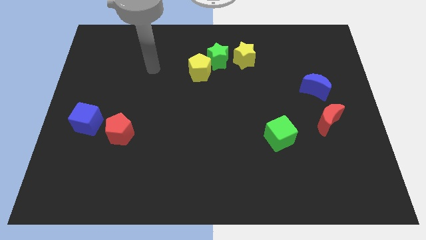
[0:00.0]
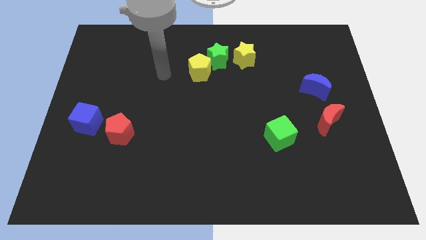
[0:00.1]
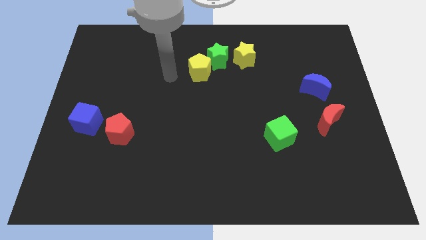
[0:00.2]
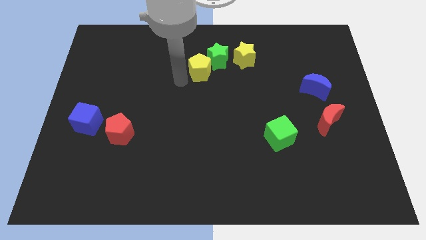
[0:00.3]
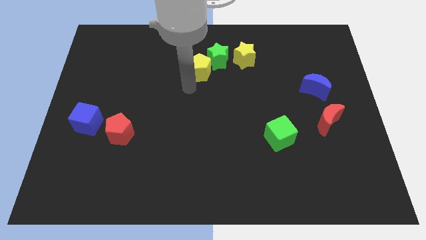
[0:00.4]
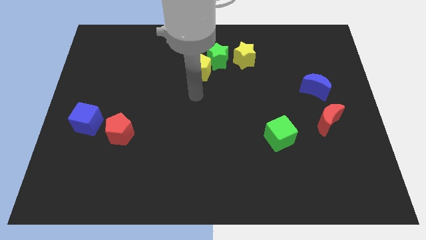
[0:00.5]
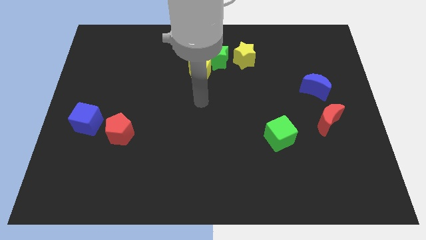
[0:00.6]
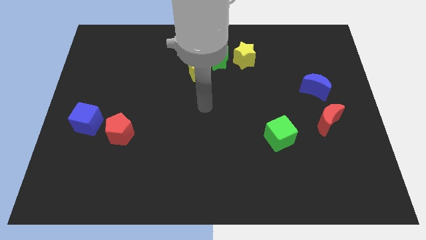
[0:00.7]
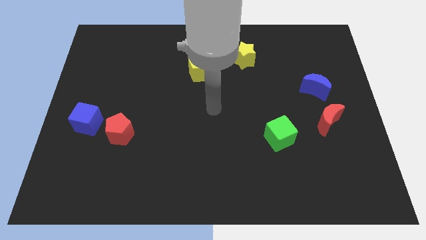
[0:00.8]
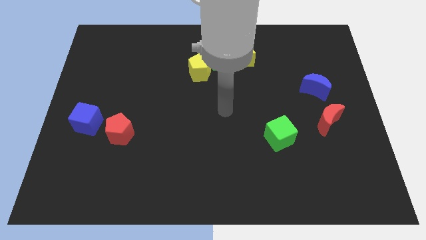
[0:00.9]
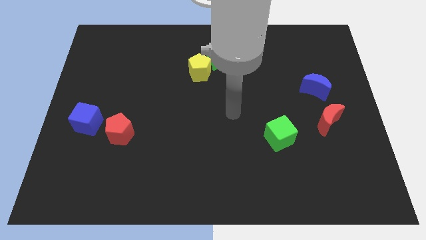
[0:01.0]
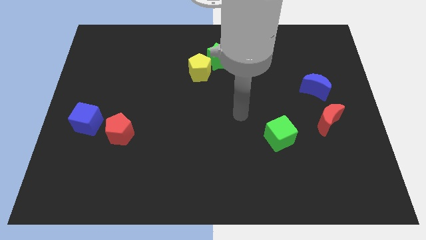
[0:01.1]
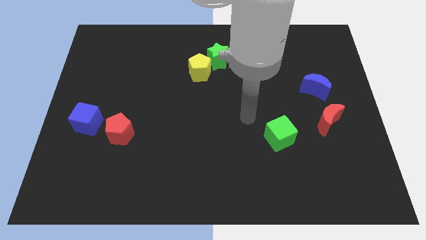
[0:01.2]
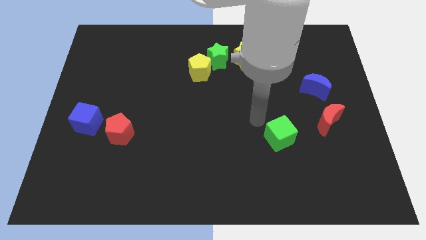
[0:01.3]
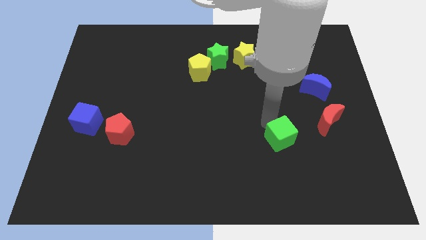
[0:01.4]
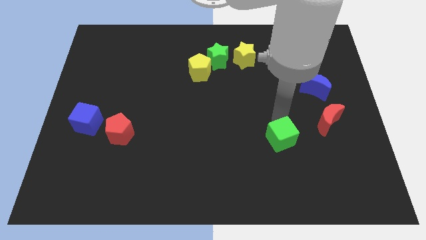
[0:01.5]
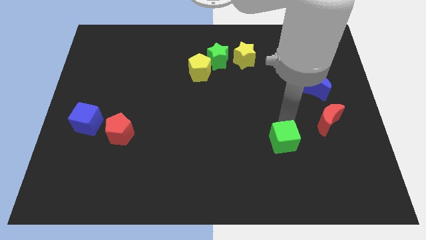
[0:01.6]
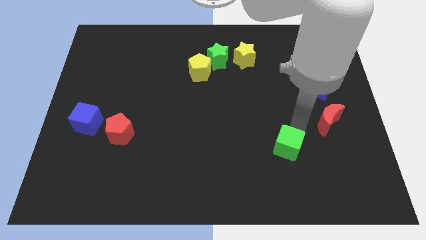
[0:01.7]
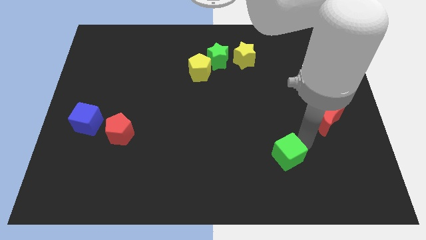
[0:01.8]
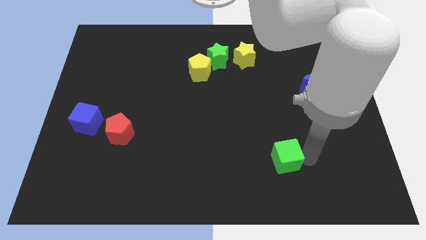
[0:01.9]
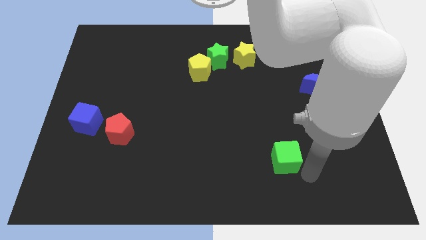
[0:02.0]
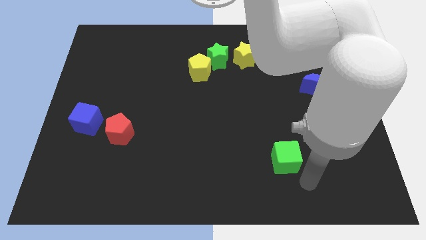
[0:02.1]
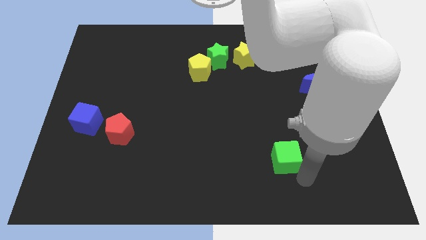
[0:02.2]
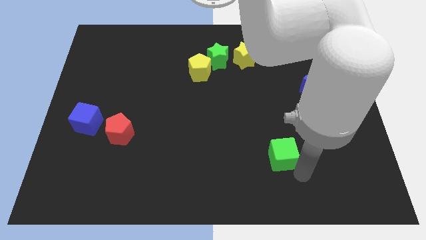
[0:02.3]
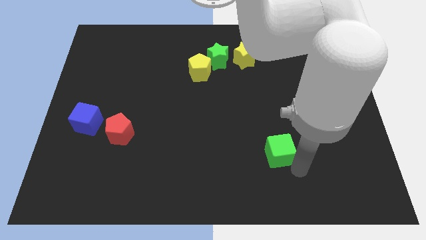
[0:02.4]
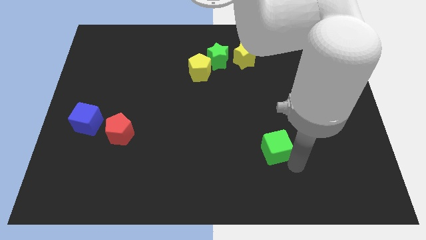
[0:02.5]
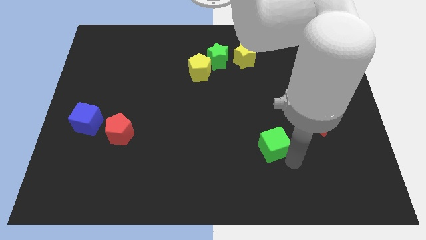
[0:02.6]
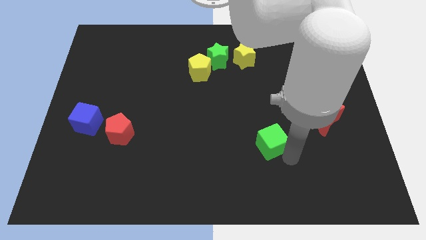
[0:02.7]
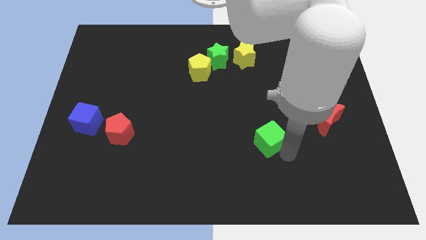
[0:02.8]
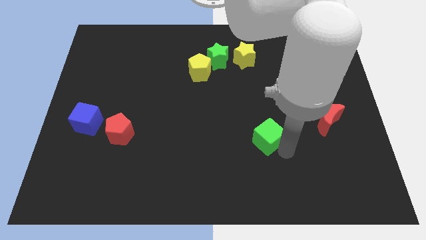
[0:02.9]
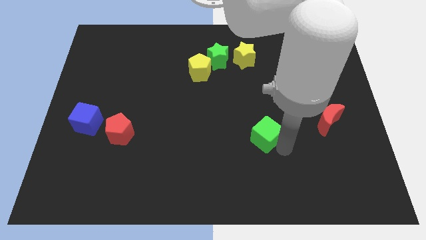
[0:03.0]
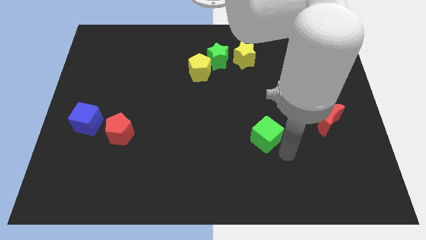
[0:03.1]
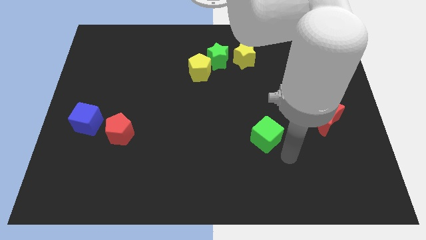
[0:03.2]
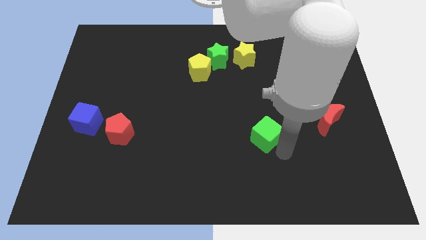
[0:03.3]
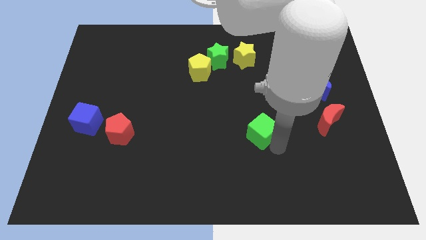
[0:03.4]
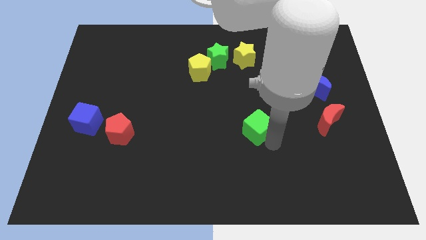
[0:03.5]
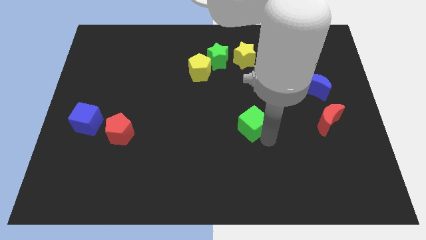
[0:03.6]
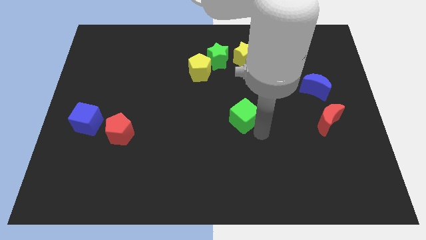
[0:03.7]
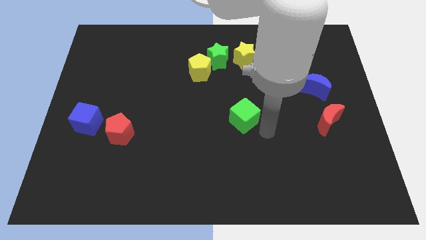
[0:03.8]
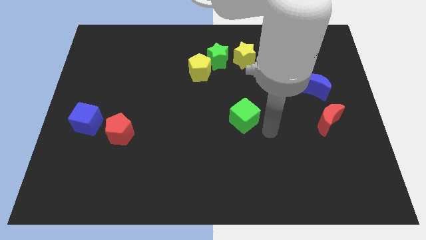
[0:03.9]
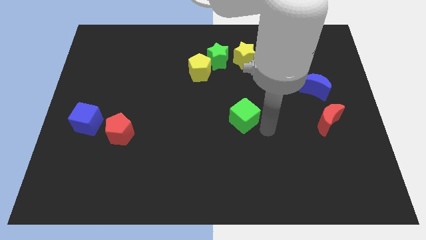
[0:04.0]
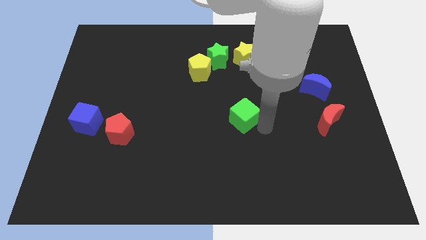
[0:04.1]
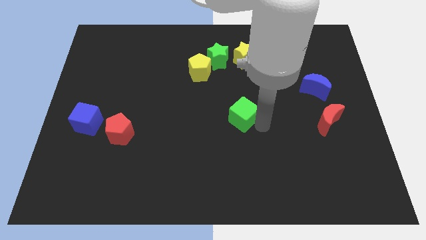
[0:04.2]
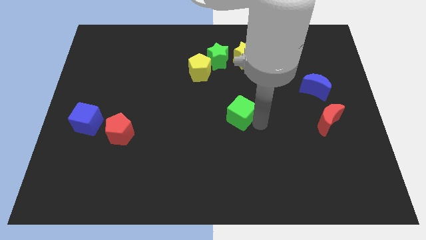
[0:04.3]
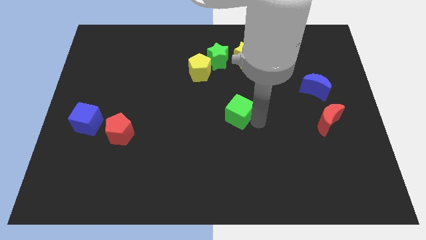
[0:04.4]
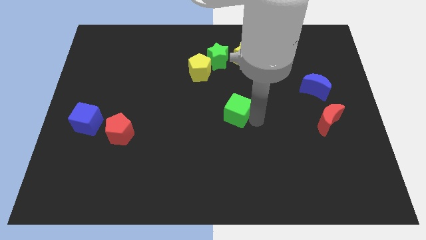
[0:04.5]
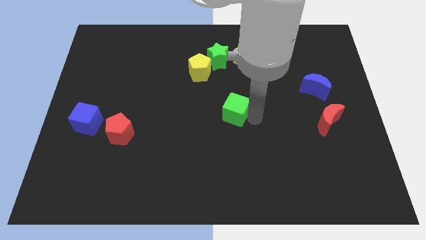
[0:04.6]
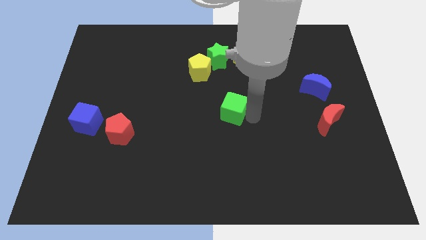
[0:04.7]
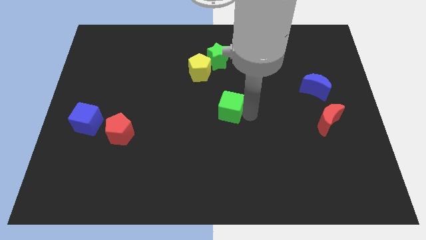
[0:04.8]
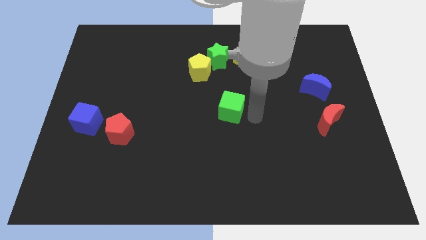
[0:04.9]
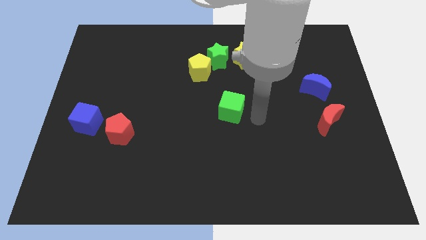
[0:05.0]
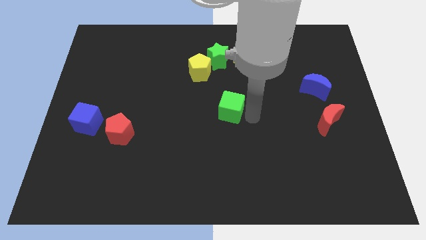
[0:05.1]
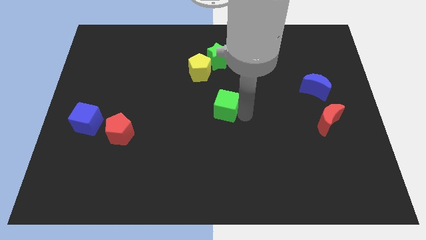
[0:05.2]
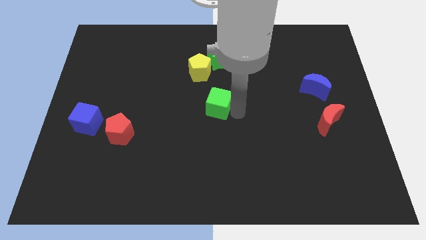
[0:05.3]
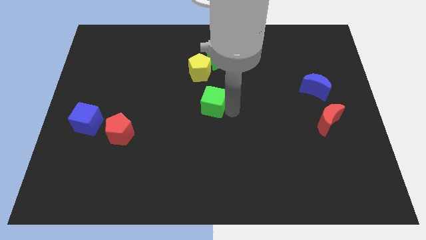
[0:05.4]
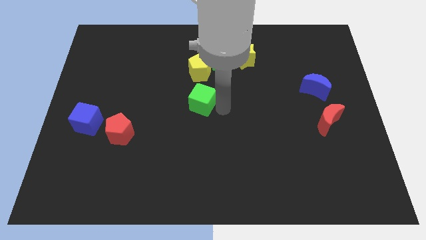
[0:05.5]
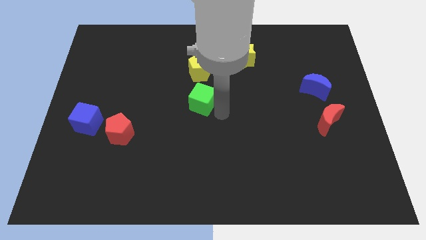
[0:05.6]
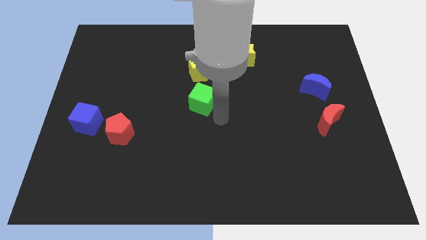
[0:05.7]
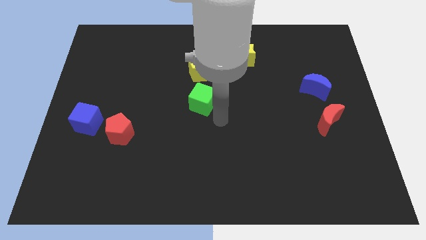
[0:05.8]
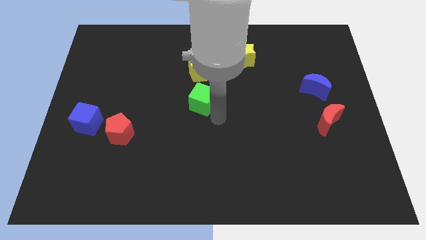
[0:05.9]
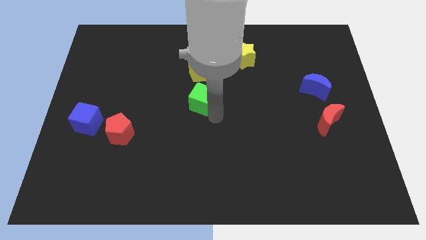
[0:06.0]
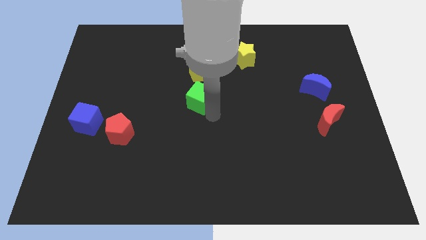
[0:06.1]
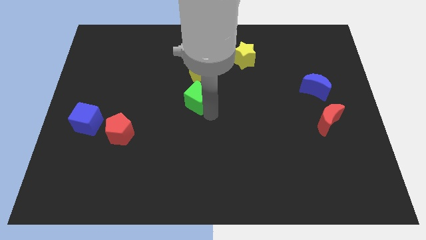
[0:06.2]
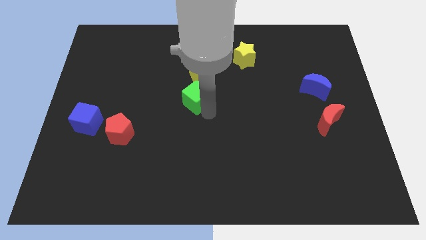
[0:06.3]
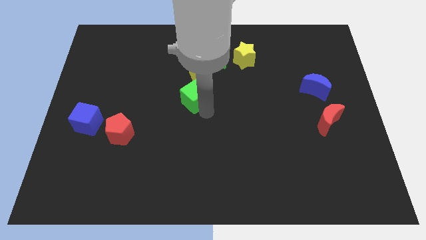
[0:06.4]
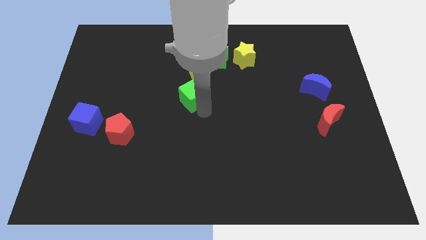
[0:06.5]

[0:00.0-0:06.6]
move the green cube upwards and left diagonally

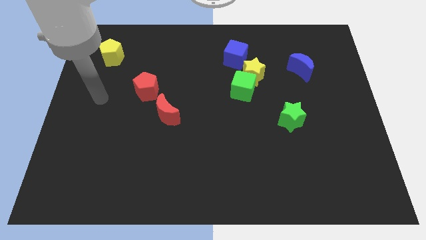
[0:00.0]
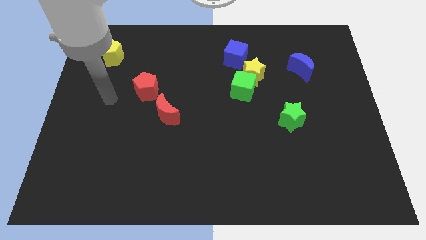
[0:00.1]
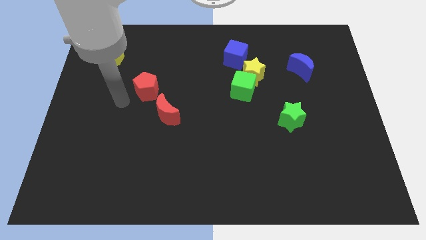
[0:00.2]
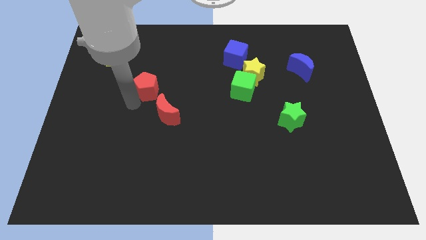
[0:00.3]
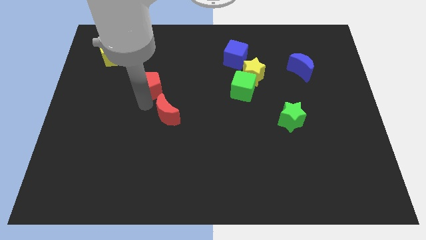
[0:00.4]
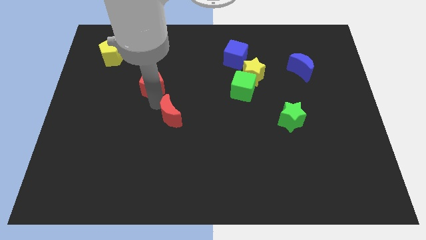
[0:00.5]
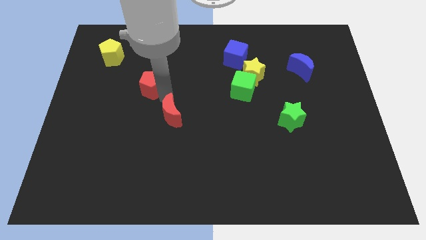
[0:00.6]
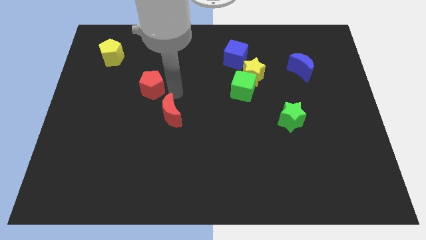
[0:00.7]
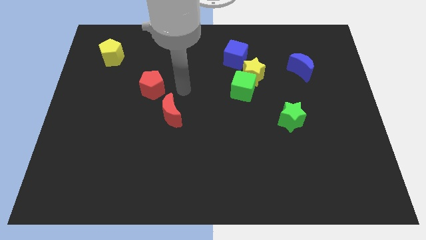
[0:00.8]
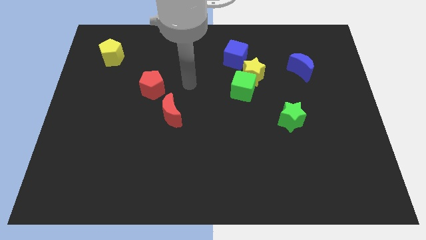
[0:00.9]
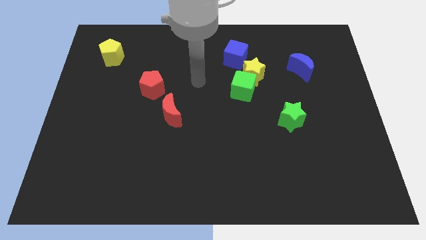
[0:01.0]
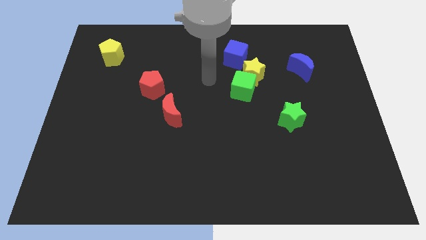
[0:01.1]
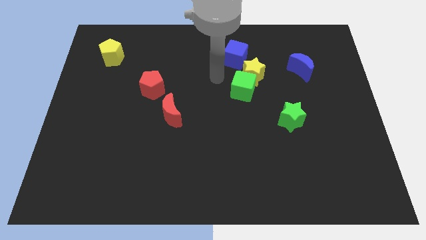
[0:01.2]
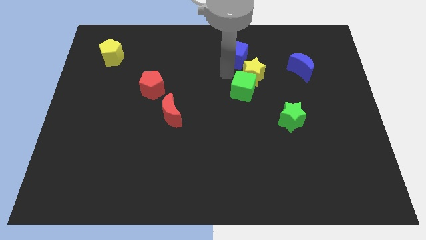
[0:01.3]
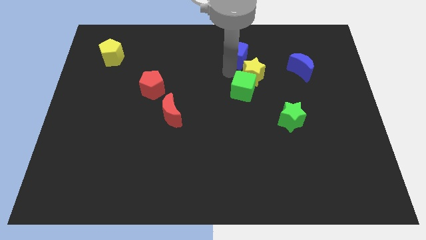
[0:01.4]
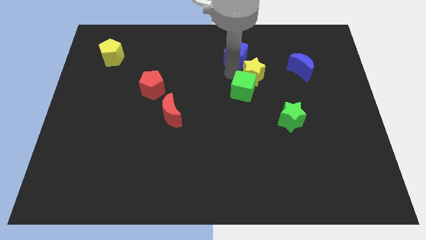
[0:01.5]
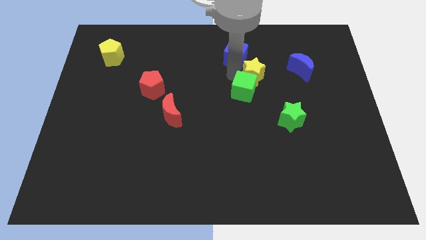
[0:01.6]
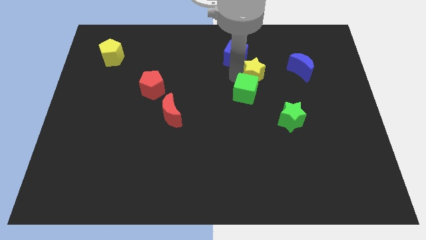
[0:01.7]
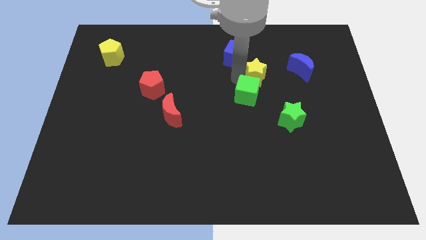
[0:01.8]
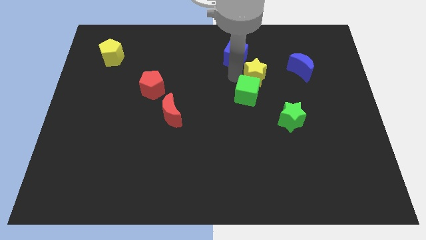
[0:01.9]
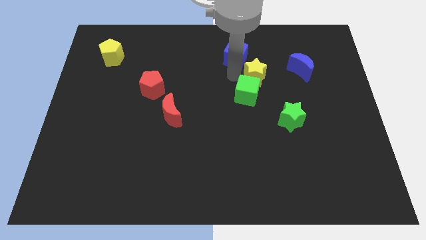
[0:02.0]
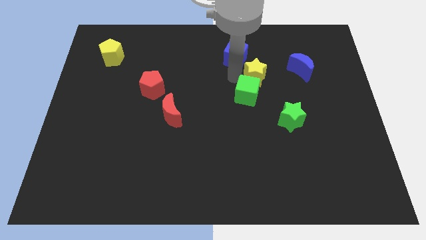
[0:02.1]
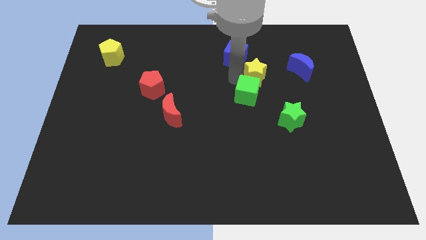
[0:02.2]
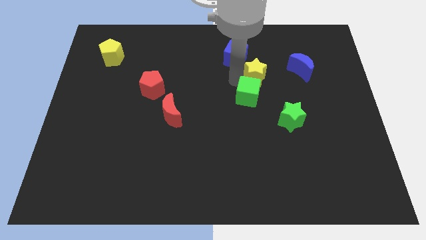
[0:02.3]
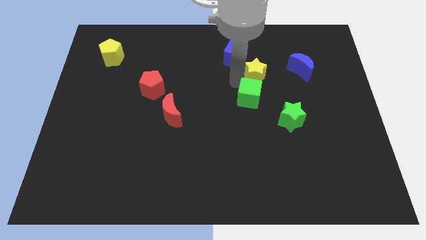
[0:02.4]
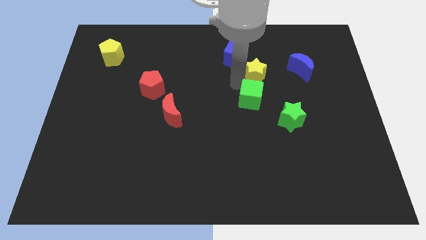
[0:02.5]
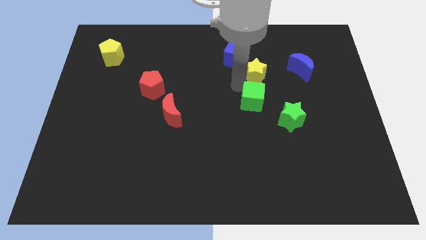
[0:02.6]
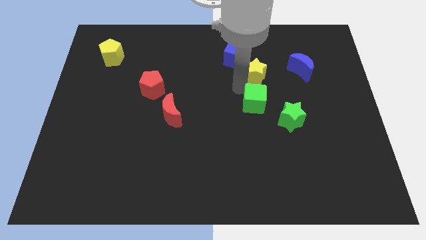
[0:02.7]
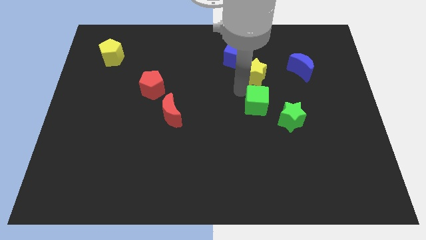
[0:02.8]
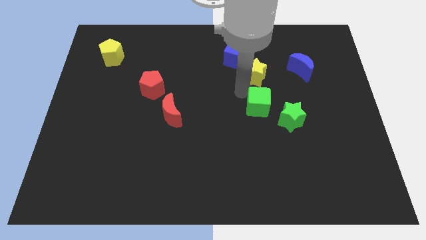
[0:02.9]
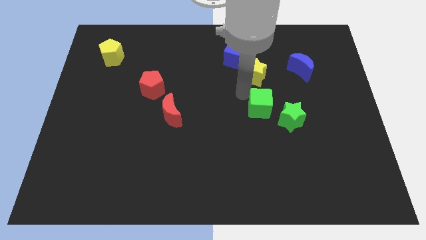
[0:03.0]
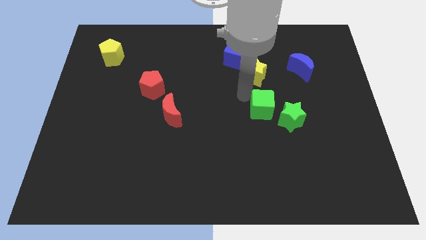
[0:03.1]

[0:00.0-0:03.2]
push the green cube downwards and then right a little bit
